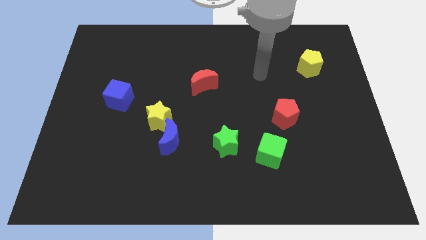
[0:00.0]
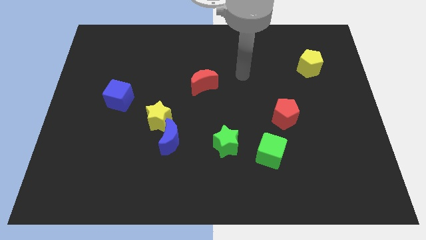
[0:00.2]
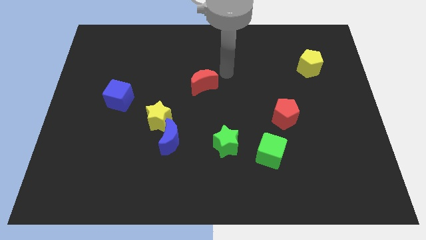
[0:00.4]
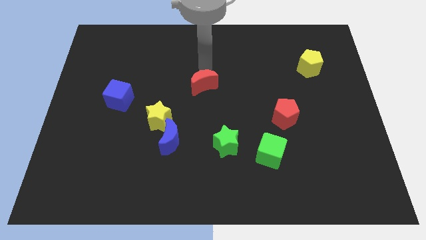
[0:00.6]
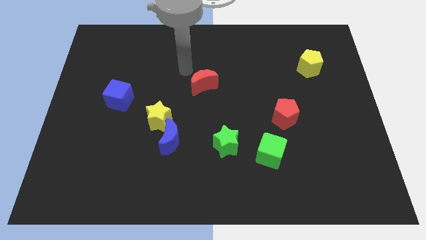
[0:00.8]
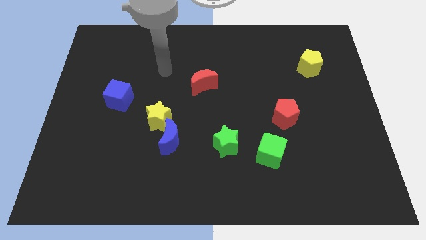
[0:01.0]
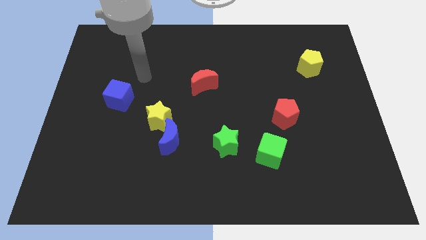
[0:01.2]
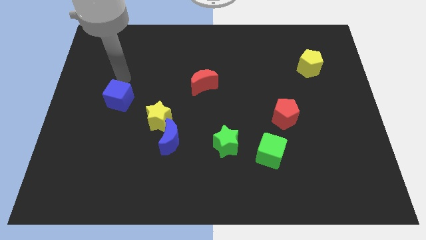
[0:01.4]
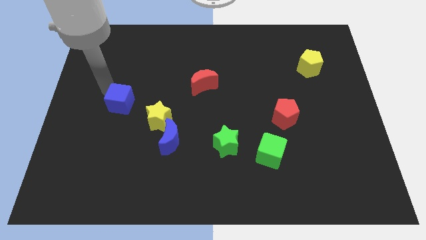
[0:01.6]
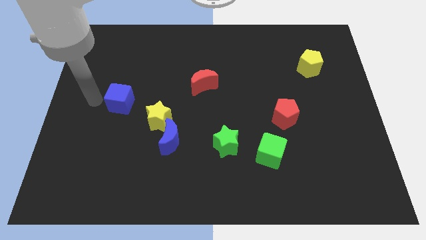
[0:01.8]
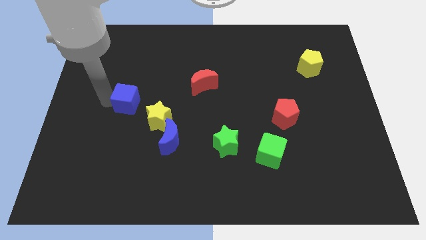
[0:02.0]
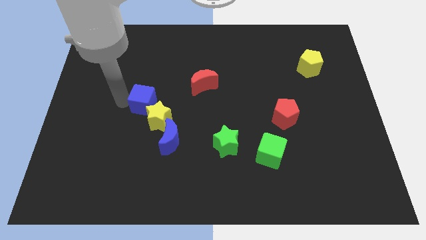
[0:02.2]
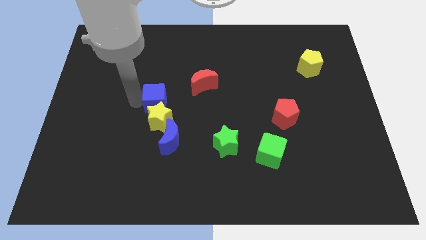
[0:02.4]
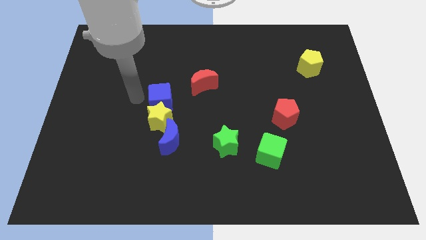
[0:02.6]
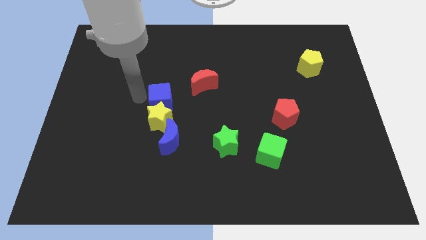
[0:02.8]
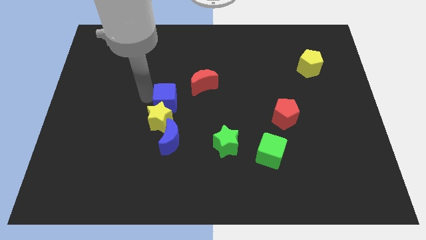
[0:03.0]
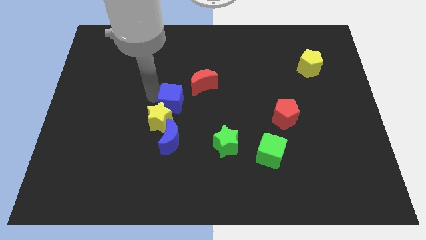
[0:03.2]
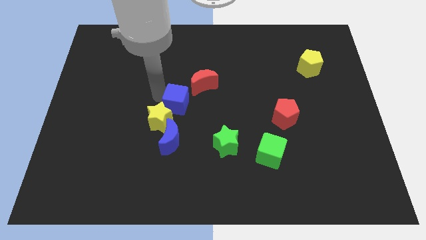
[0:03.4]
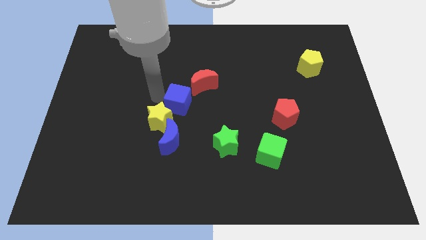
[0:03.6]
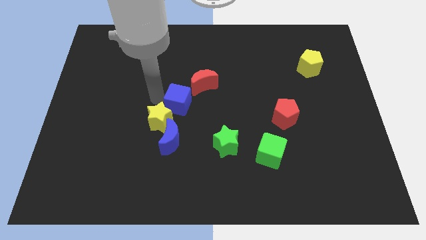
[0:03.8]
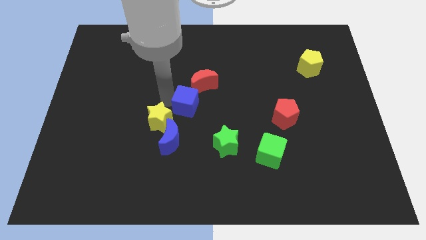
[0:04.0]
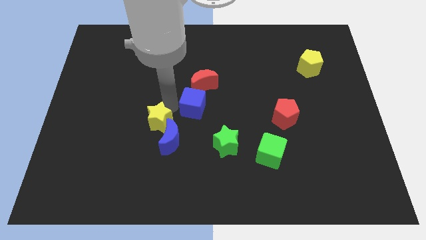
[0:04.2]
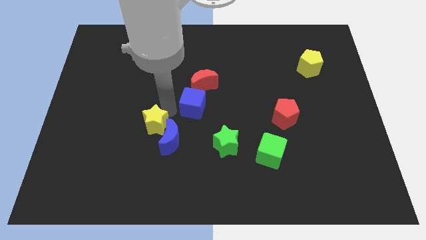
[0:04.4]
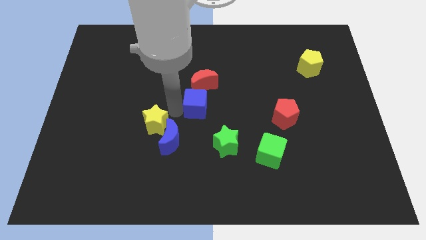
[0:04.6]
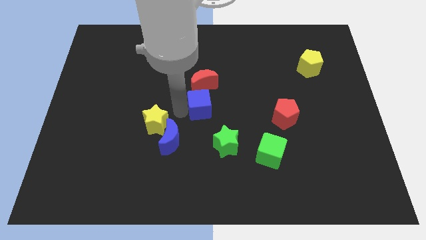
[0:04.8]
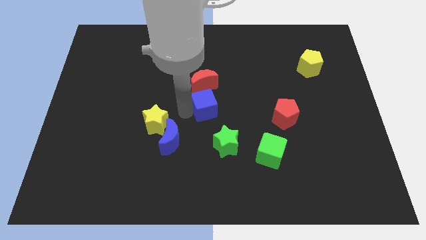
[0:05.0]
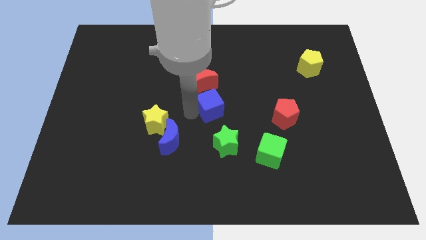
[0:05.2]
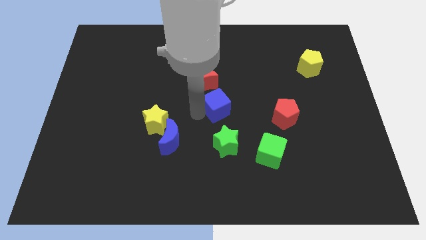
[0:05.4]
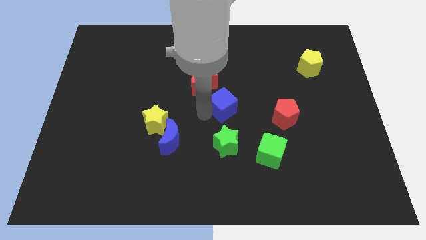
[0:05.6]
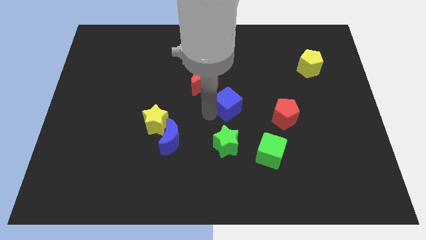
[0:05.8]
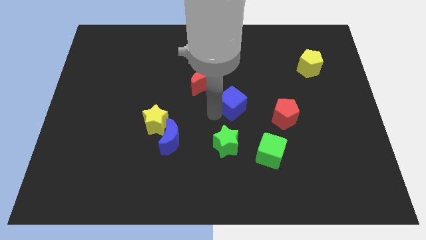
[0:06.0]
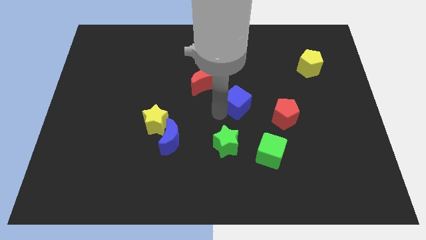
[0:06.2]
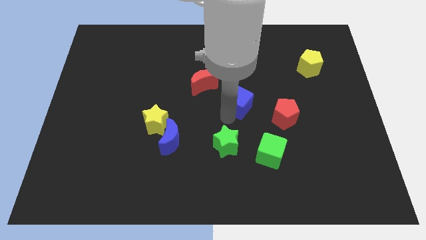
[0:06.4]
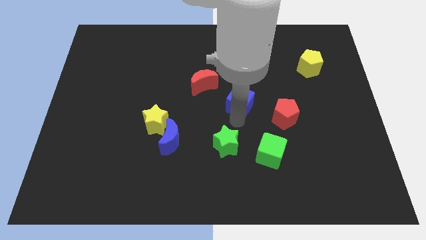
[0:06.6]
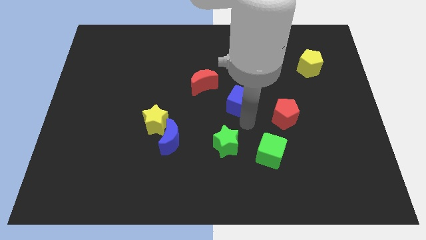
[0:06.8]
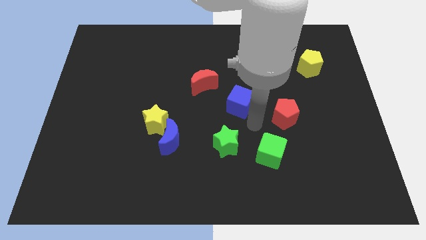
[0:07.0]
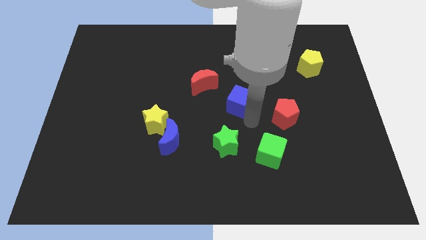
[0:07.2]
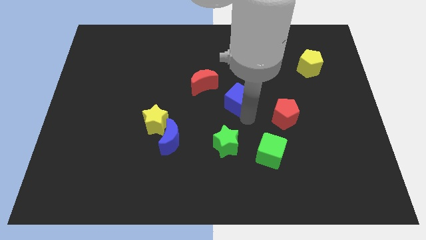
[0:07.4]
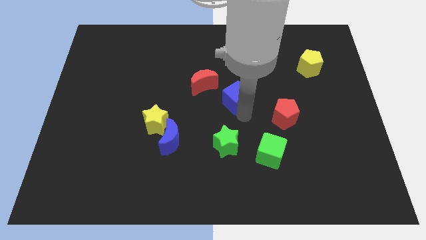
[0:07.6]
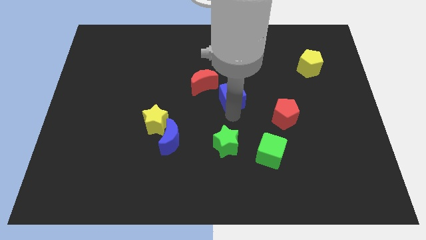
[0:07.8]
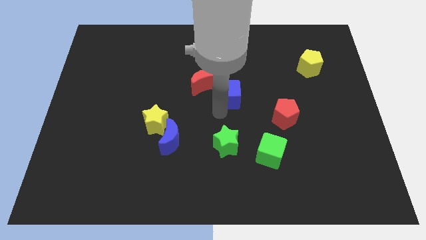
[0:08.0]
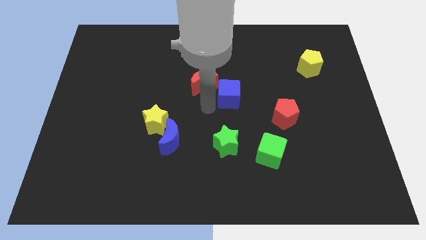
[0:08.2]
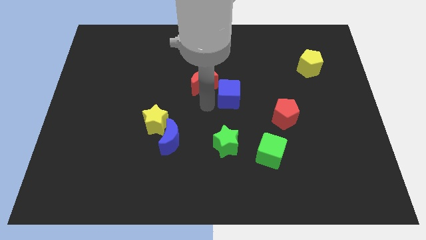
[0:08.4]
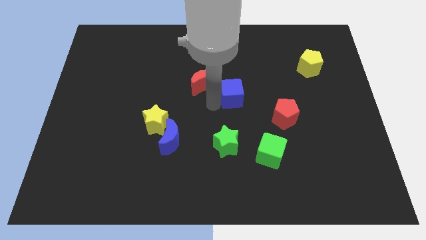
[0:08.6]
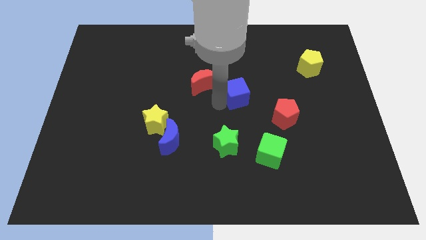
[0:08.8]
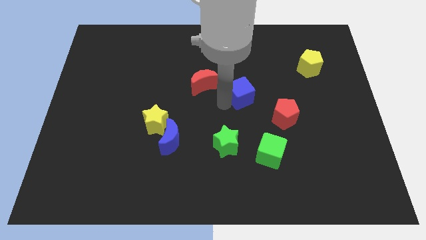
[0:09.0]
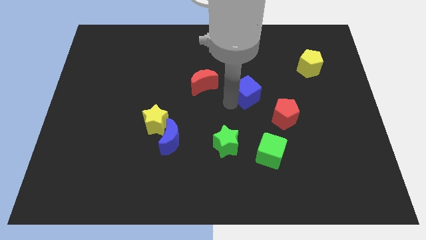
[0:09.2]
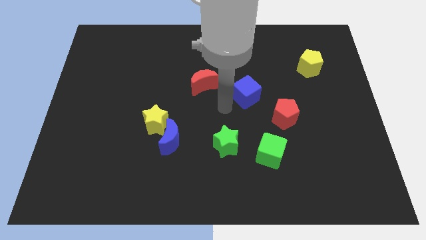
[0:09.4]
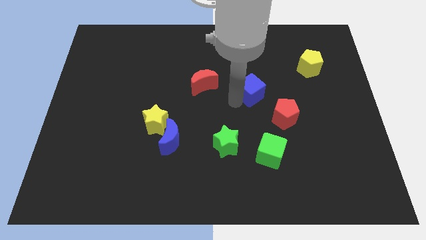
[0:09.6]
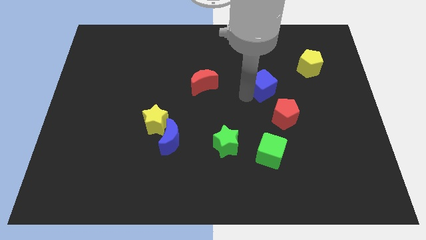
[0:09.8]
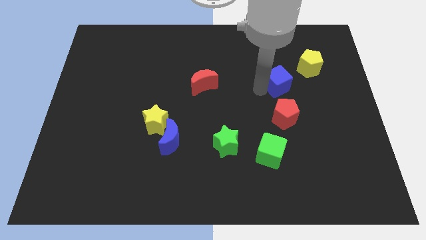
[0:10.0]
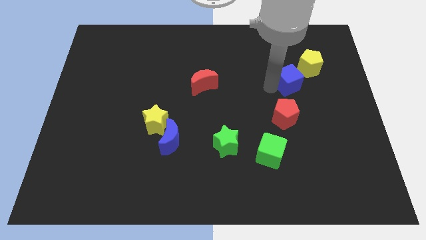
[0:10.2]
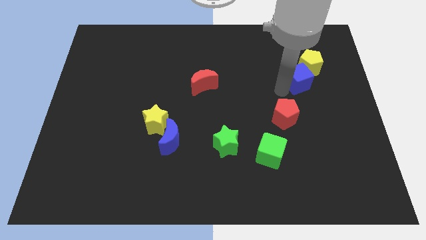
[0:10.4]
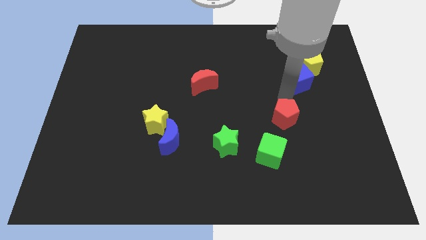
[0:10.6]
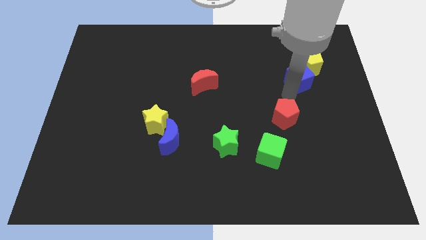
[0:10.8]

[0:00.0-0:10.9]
move the blue cube close to the yellow pentagon

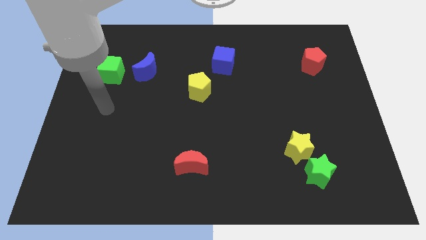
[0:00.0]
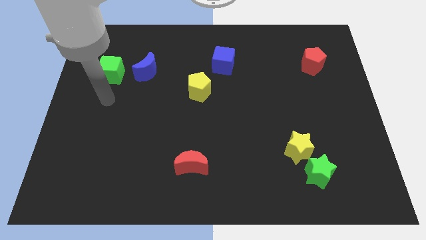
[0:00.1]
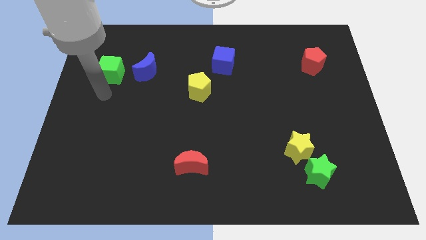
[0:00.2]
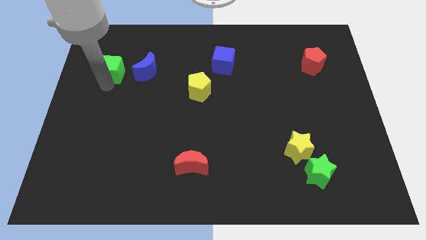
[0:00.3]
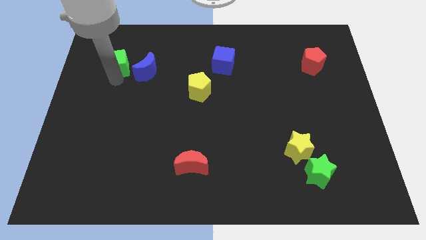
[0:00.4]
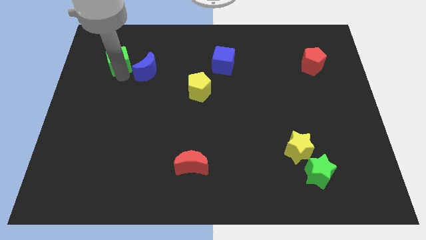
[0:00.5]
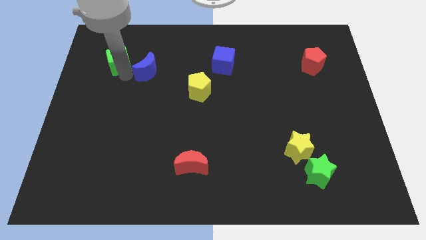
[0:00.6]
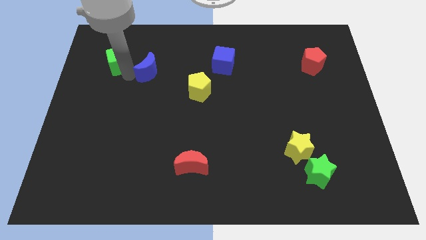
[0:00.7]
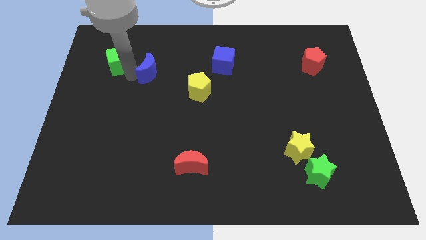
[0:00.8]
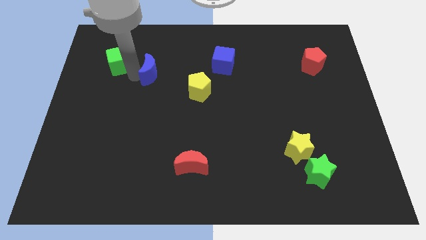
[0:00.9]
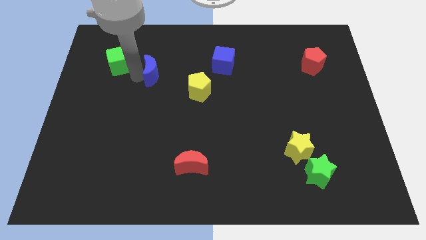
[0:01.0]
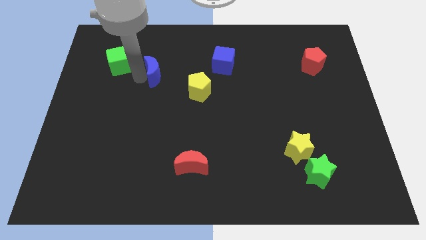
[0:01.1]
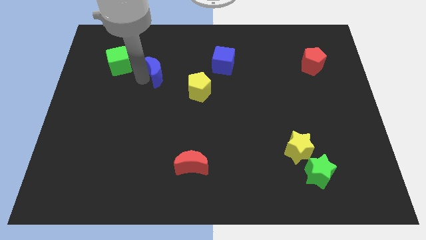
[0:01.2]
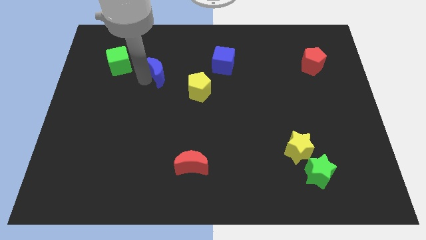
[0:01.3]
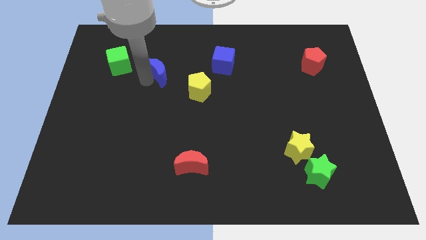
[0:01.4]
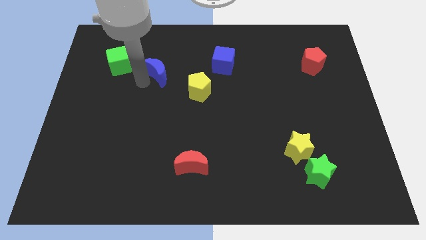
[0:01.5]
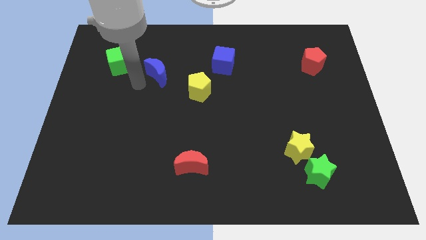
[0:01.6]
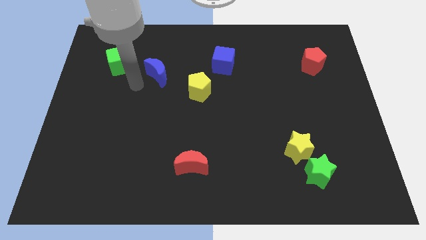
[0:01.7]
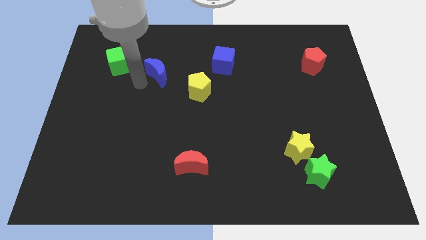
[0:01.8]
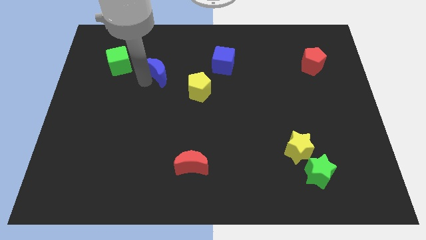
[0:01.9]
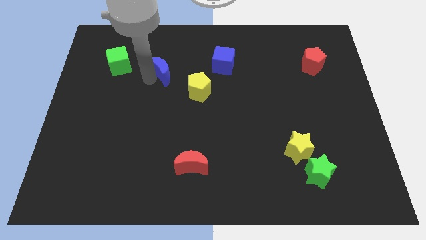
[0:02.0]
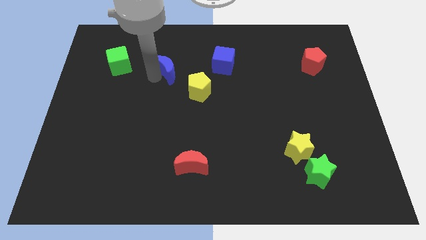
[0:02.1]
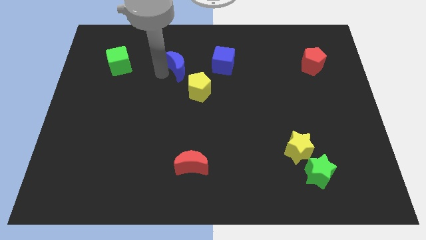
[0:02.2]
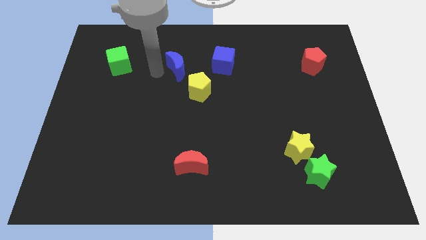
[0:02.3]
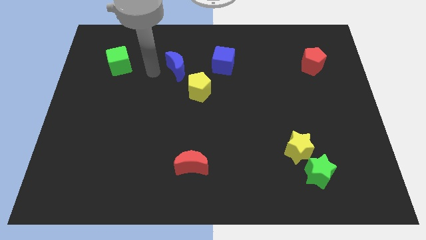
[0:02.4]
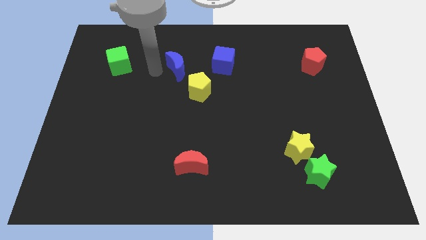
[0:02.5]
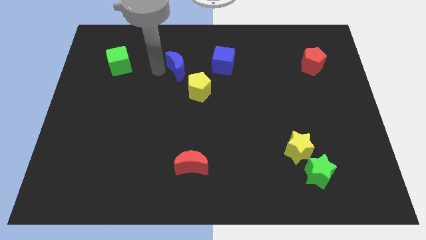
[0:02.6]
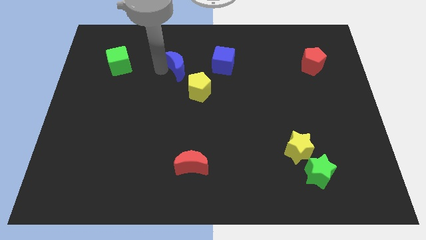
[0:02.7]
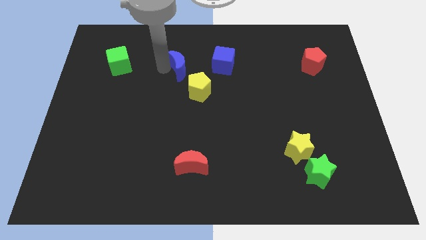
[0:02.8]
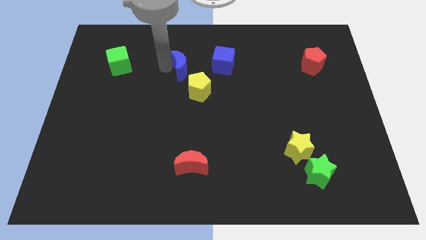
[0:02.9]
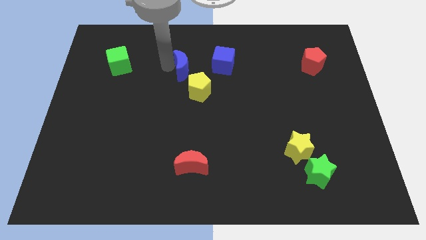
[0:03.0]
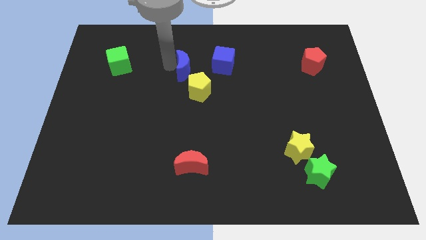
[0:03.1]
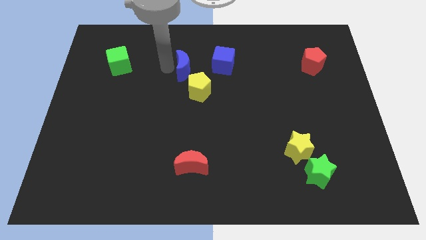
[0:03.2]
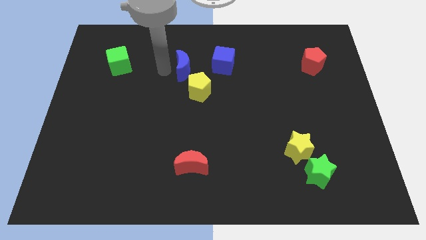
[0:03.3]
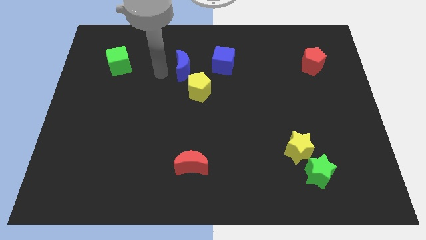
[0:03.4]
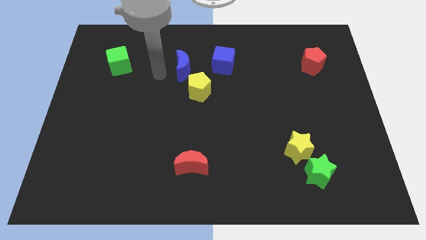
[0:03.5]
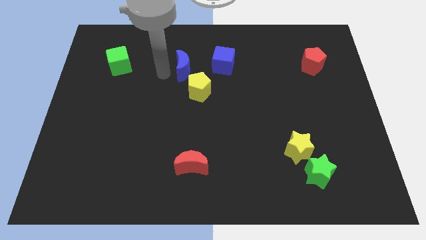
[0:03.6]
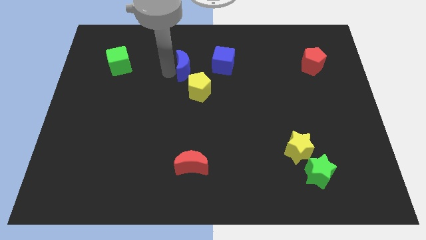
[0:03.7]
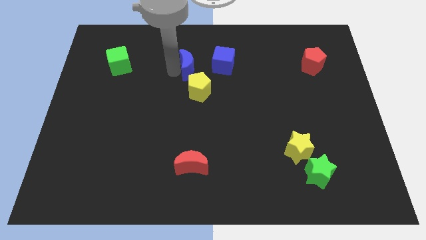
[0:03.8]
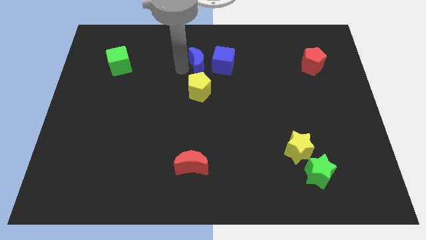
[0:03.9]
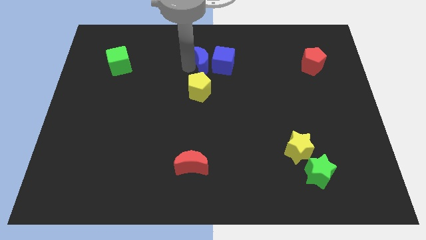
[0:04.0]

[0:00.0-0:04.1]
slide the blue moon towards the blue cube
